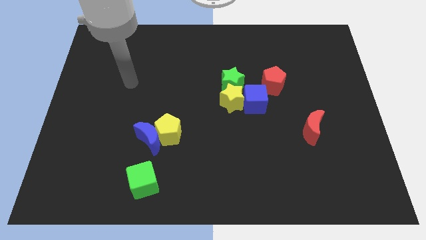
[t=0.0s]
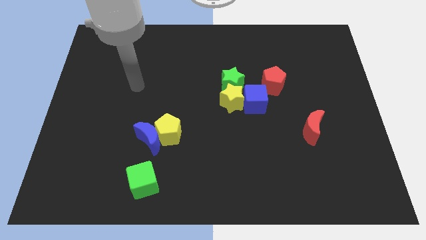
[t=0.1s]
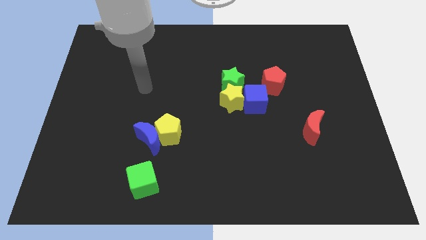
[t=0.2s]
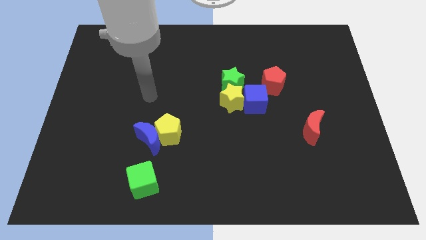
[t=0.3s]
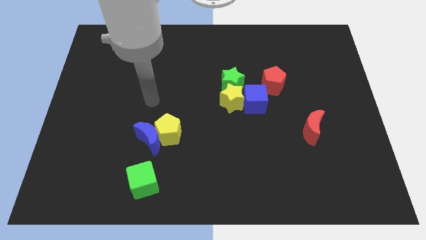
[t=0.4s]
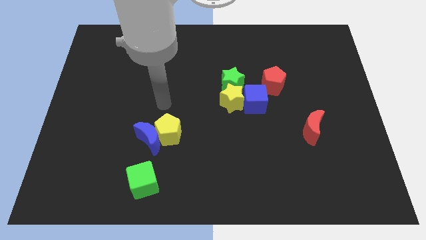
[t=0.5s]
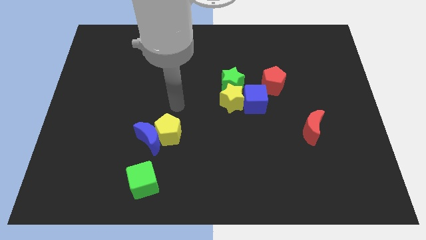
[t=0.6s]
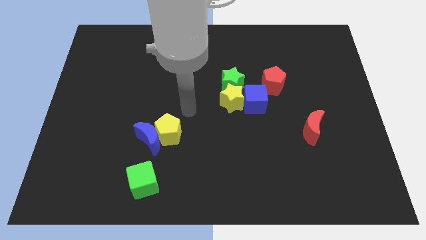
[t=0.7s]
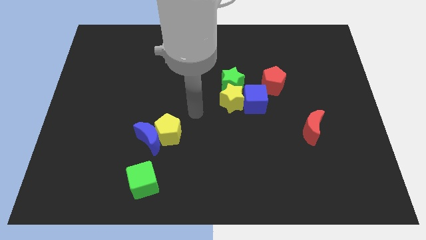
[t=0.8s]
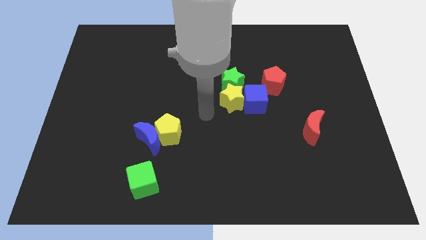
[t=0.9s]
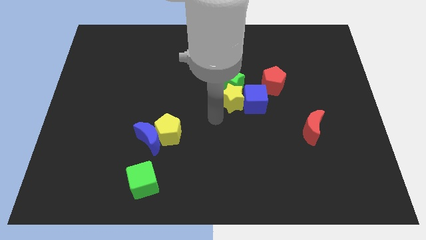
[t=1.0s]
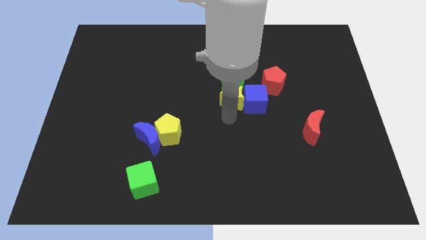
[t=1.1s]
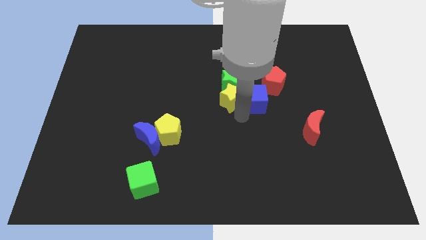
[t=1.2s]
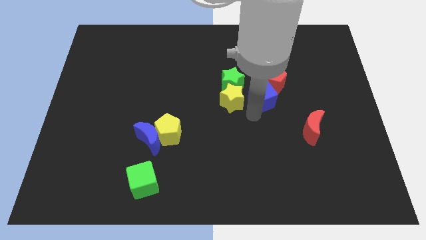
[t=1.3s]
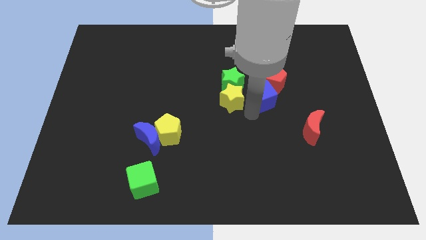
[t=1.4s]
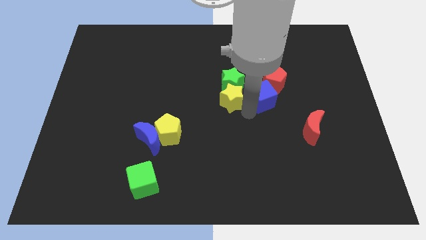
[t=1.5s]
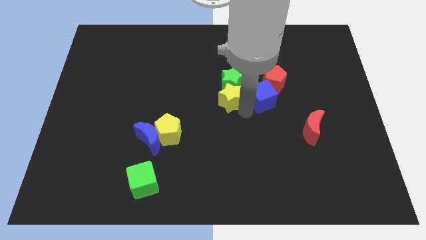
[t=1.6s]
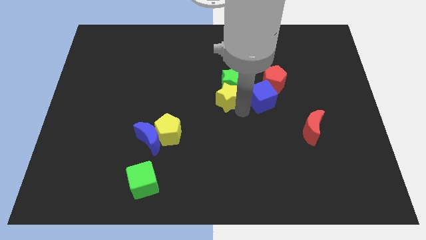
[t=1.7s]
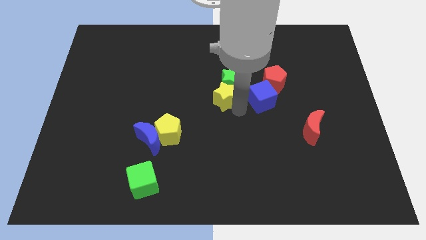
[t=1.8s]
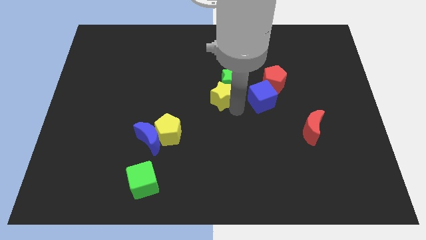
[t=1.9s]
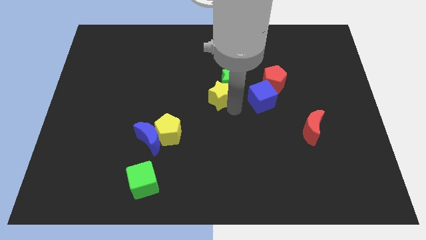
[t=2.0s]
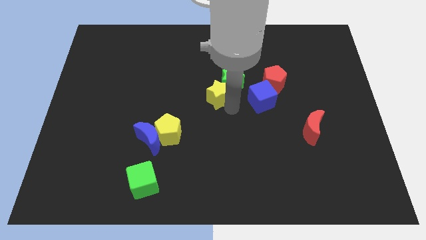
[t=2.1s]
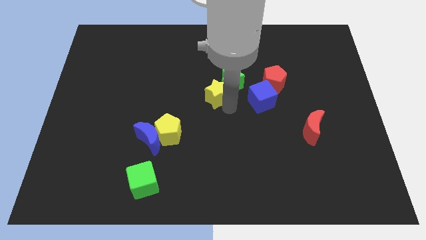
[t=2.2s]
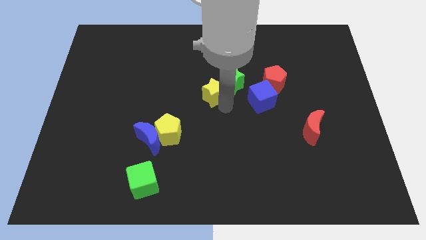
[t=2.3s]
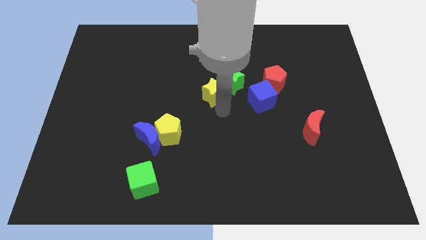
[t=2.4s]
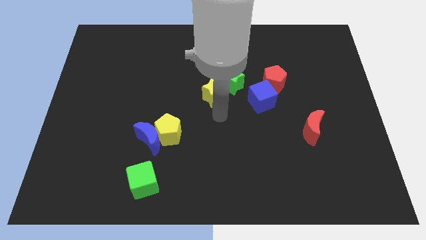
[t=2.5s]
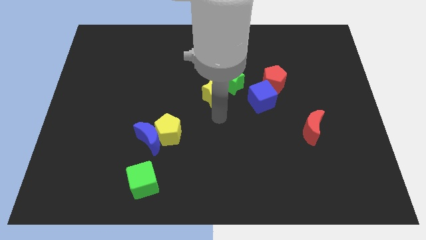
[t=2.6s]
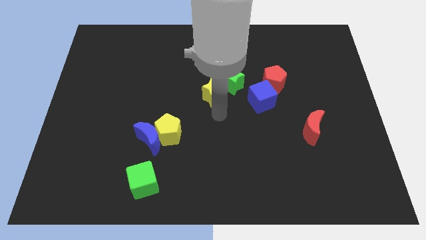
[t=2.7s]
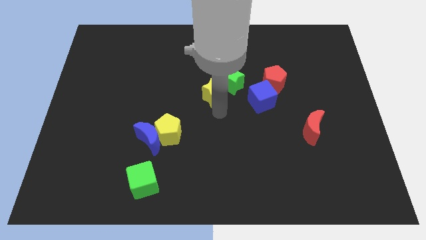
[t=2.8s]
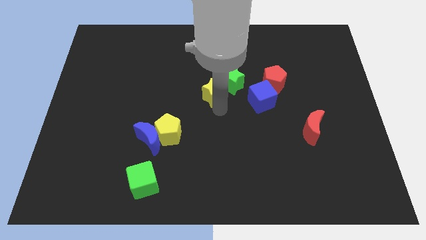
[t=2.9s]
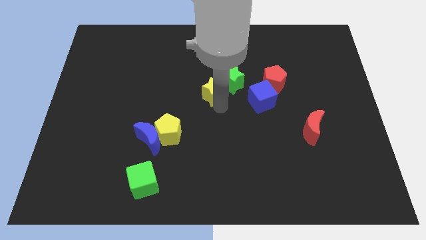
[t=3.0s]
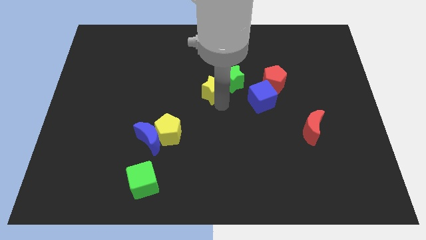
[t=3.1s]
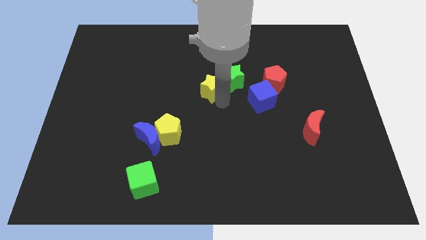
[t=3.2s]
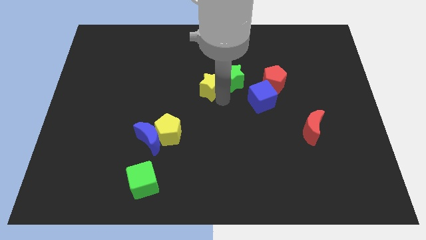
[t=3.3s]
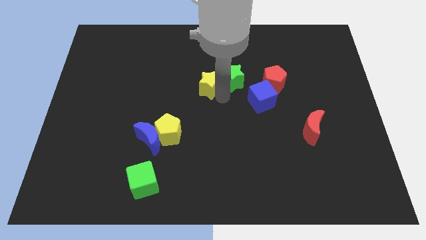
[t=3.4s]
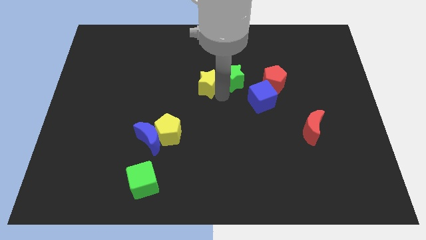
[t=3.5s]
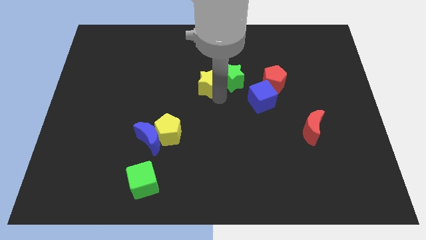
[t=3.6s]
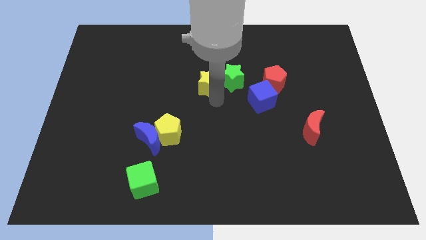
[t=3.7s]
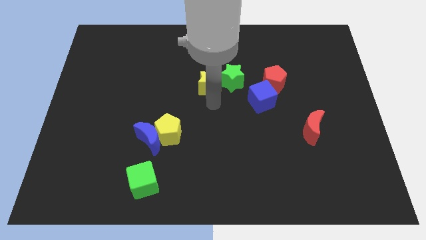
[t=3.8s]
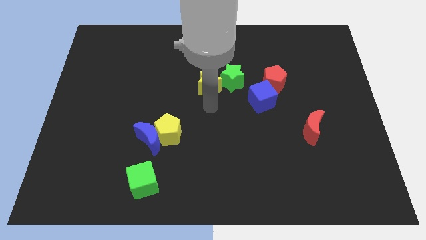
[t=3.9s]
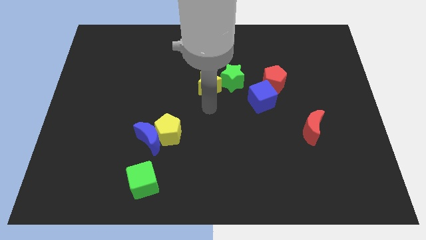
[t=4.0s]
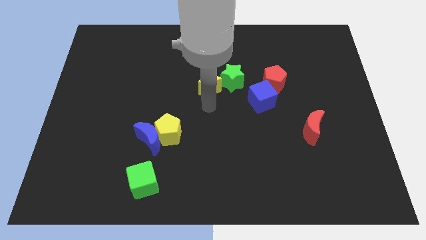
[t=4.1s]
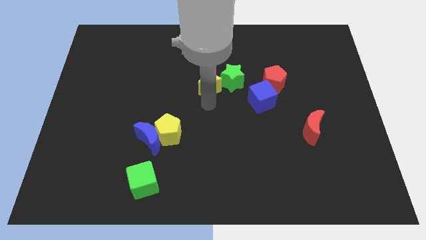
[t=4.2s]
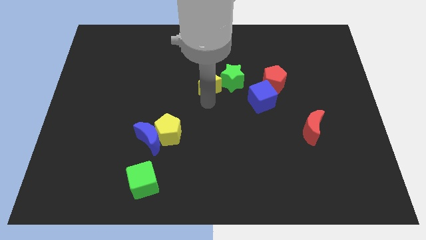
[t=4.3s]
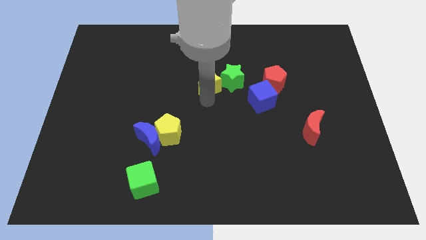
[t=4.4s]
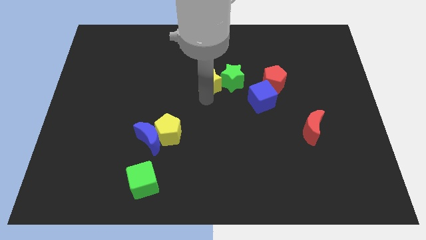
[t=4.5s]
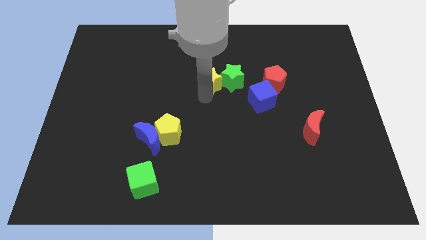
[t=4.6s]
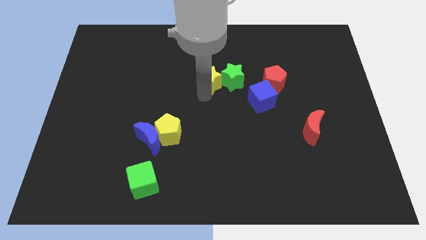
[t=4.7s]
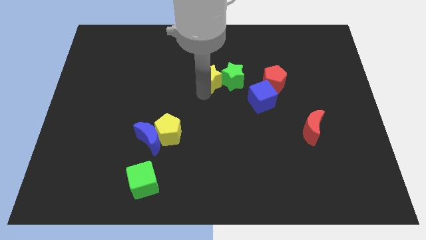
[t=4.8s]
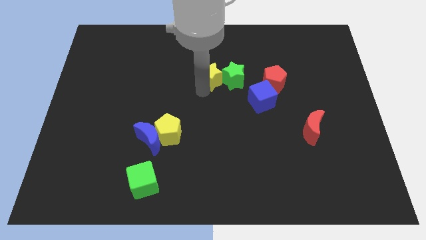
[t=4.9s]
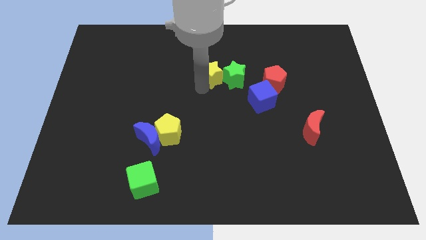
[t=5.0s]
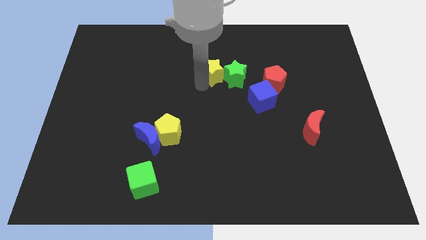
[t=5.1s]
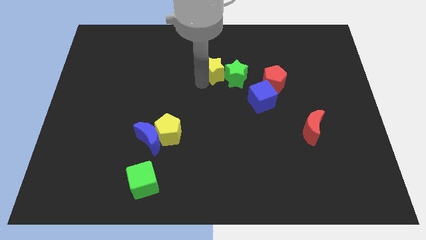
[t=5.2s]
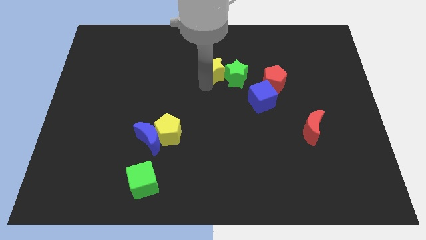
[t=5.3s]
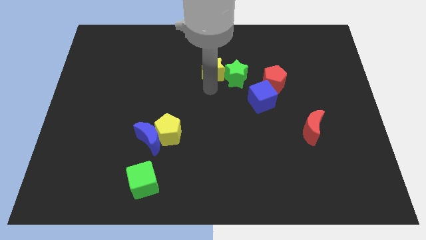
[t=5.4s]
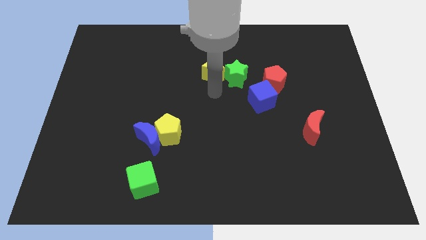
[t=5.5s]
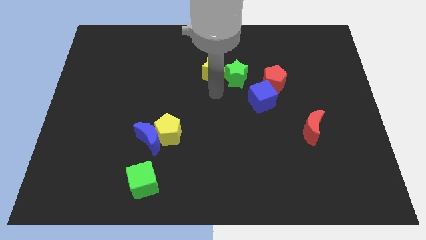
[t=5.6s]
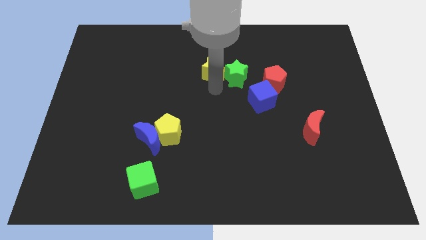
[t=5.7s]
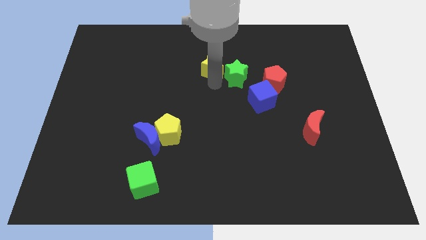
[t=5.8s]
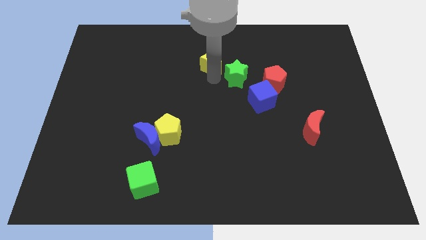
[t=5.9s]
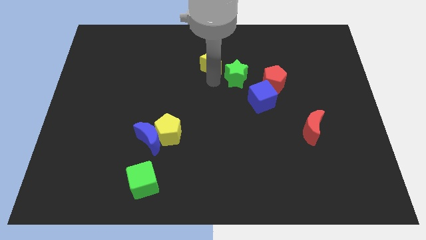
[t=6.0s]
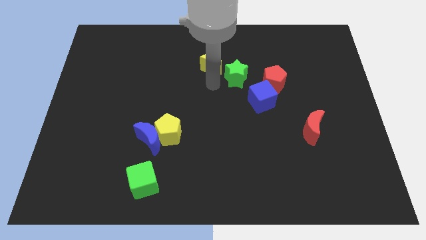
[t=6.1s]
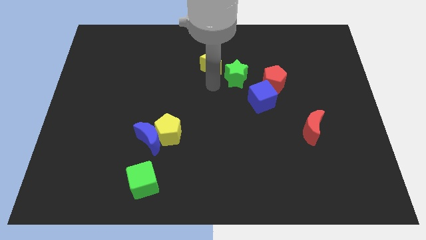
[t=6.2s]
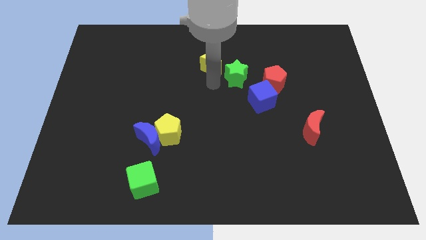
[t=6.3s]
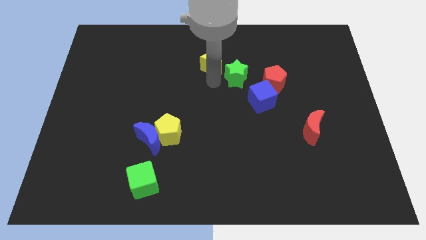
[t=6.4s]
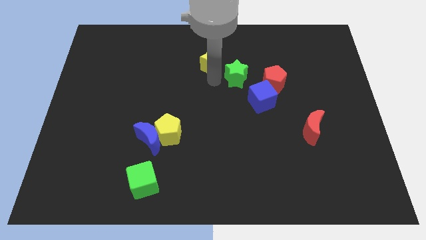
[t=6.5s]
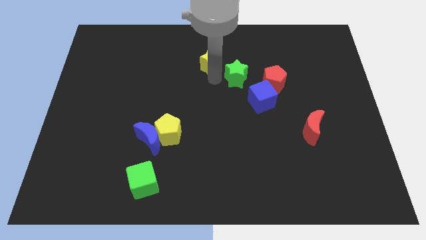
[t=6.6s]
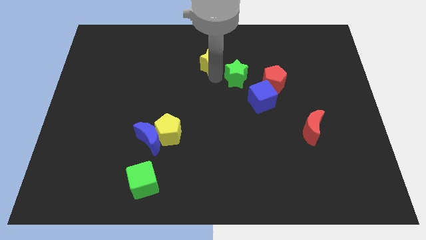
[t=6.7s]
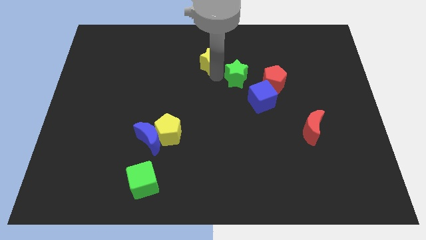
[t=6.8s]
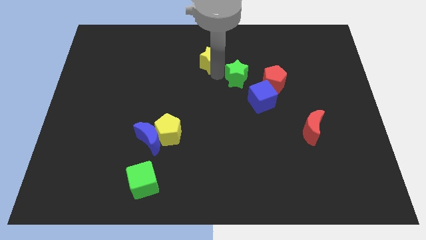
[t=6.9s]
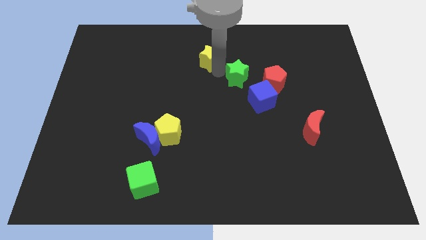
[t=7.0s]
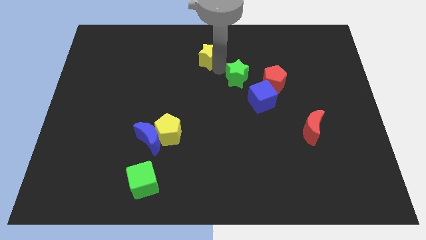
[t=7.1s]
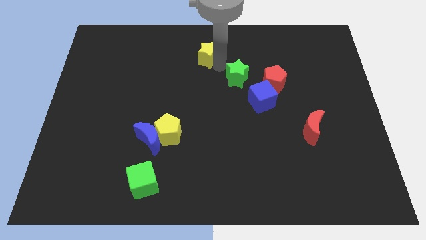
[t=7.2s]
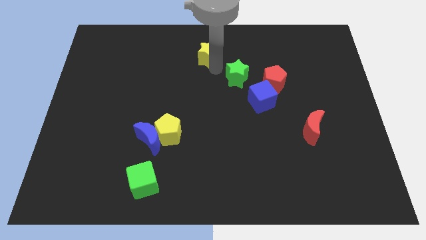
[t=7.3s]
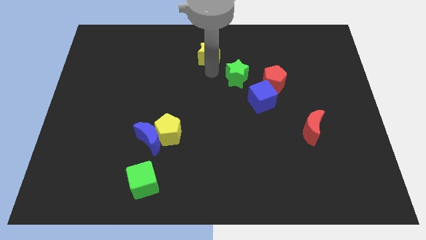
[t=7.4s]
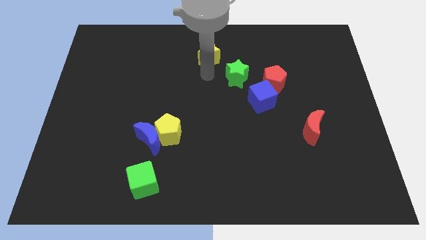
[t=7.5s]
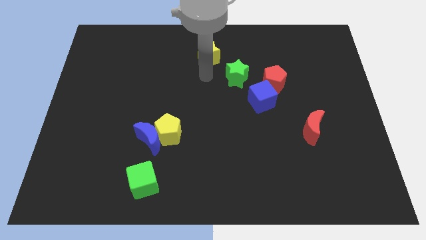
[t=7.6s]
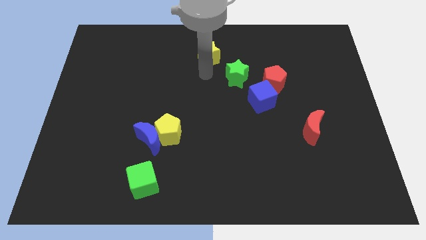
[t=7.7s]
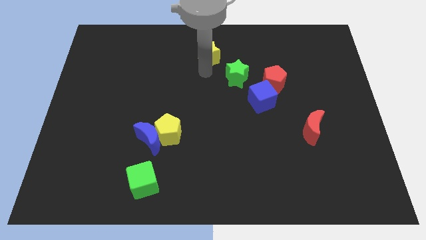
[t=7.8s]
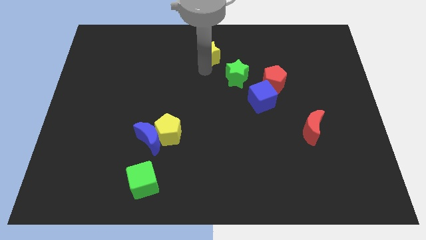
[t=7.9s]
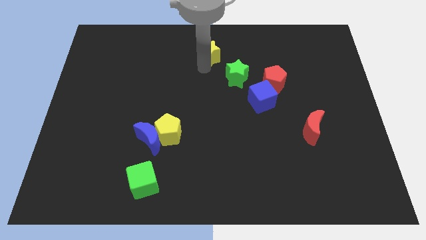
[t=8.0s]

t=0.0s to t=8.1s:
push the yellow star to the towards your base
